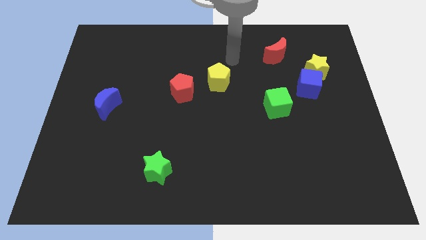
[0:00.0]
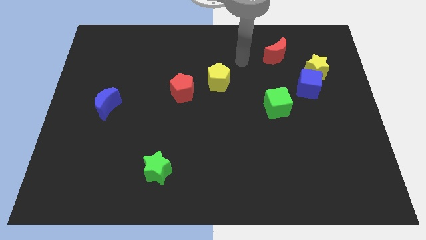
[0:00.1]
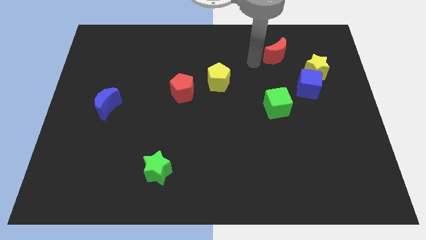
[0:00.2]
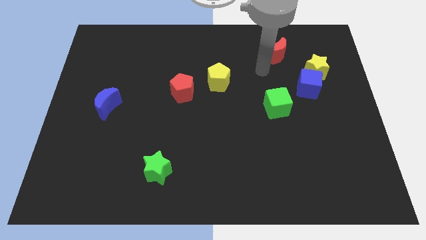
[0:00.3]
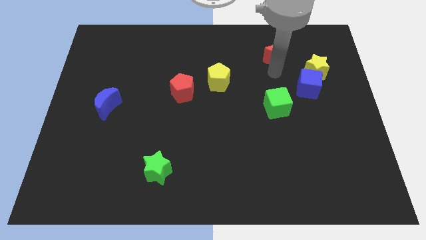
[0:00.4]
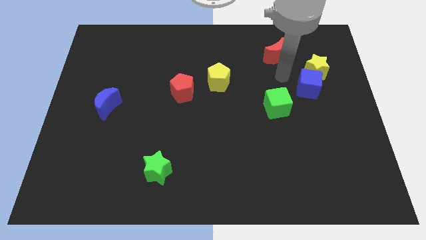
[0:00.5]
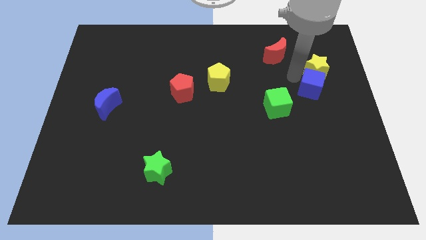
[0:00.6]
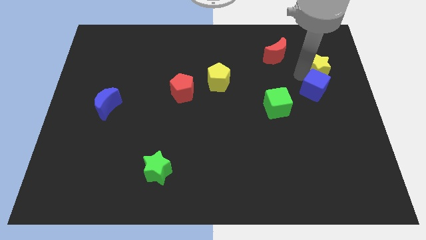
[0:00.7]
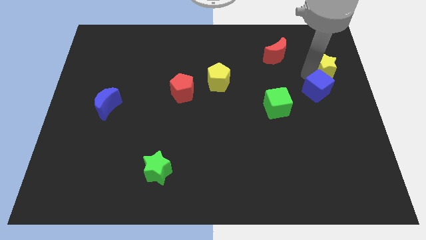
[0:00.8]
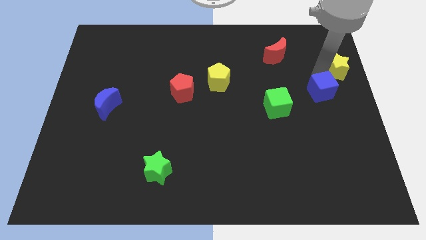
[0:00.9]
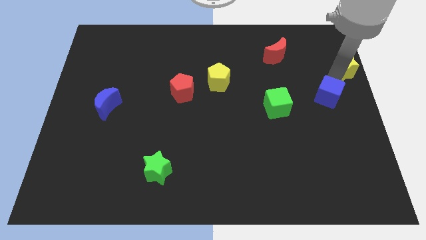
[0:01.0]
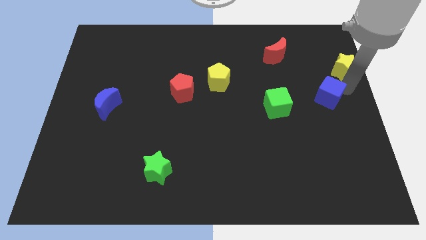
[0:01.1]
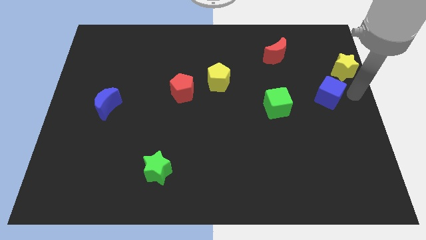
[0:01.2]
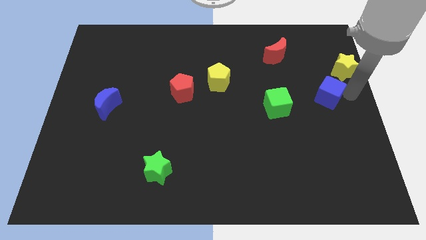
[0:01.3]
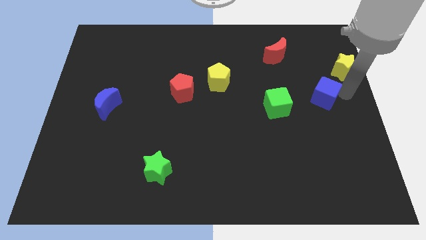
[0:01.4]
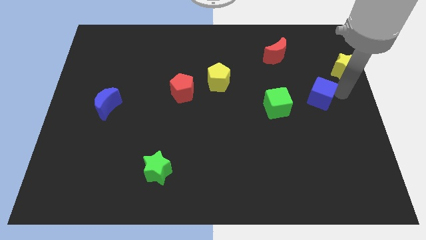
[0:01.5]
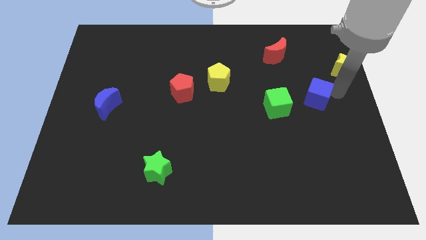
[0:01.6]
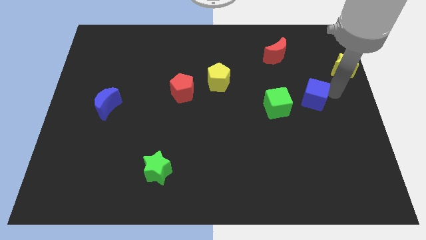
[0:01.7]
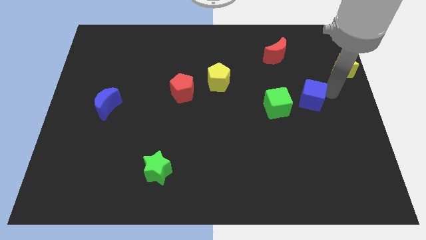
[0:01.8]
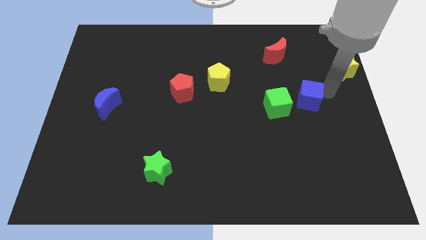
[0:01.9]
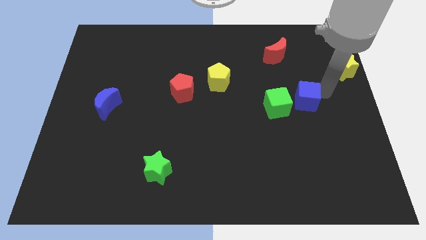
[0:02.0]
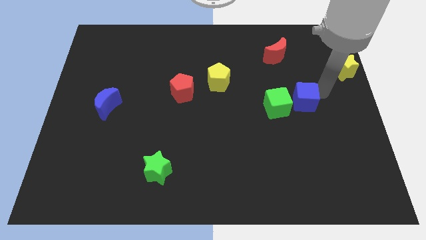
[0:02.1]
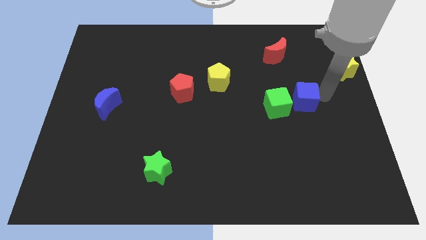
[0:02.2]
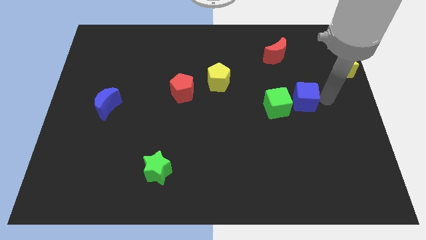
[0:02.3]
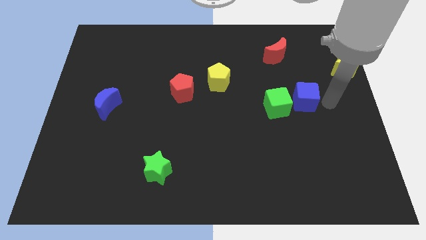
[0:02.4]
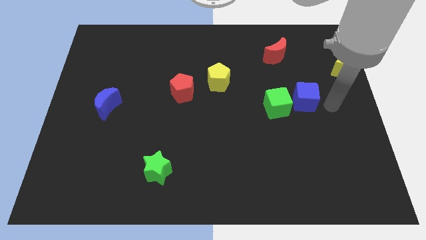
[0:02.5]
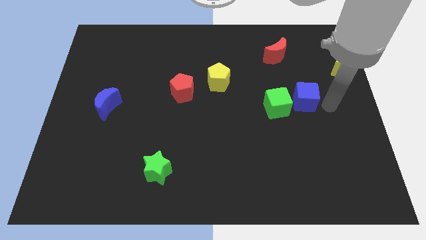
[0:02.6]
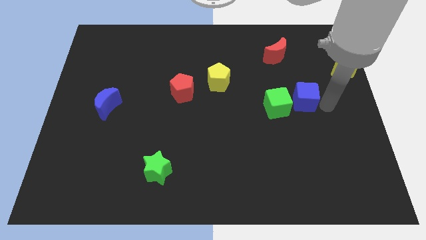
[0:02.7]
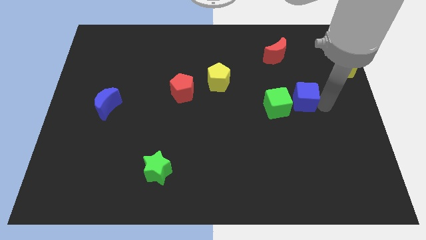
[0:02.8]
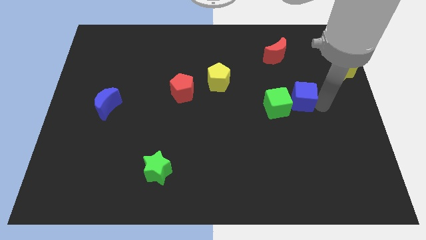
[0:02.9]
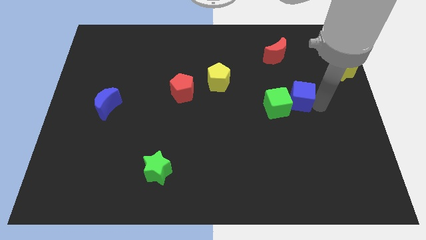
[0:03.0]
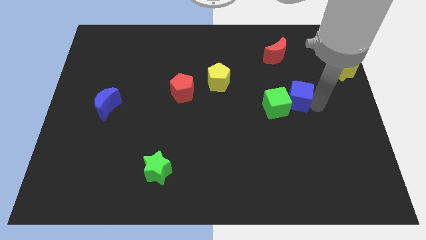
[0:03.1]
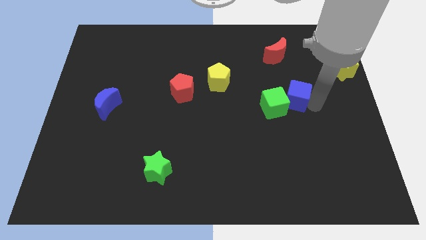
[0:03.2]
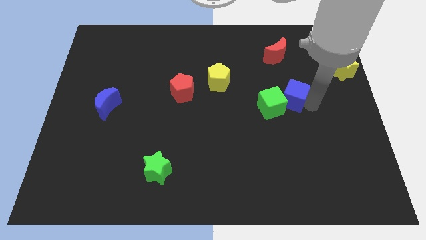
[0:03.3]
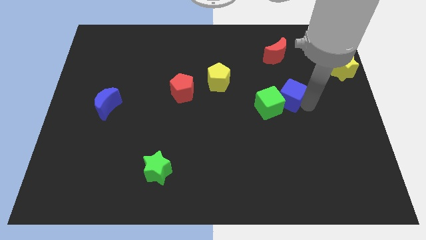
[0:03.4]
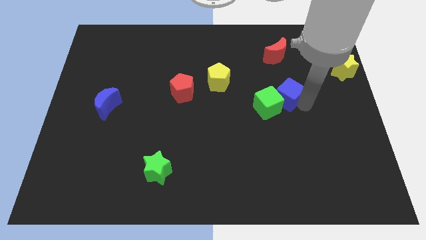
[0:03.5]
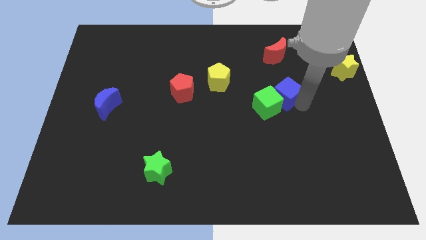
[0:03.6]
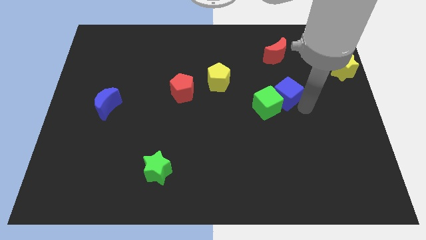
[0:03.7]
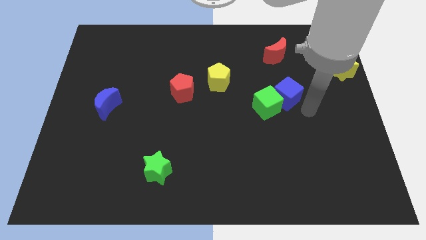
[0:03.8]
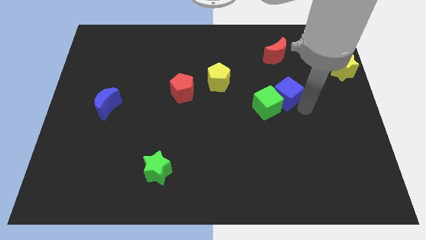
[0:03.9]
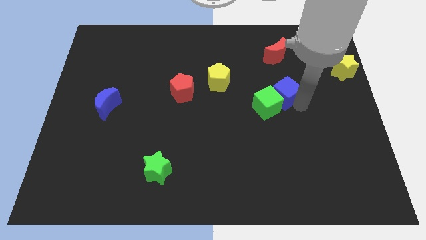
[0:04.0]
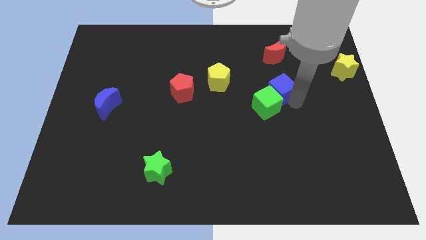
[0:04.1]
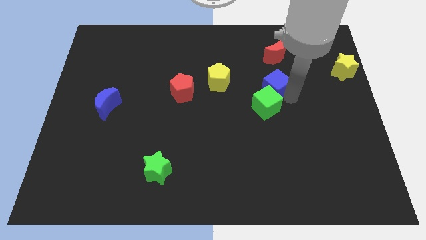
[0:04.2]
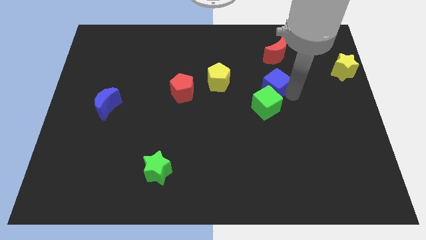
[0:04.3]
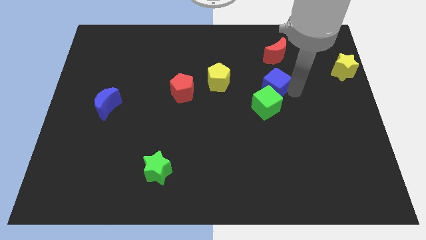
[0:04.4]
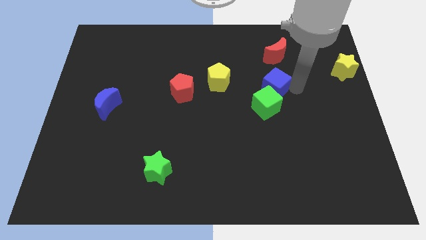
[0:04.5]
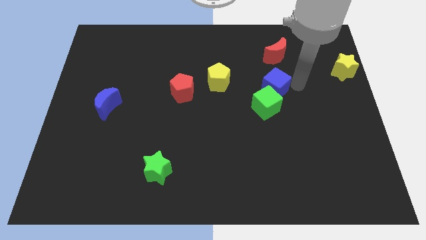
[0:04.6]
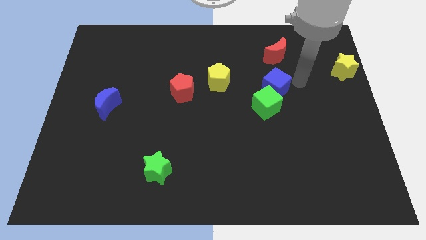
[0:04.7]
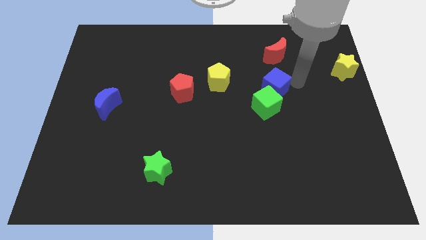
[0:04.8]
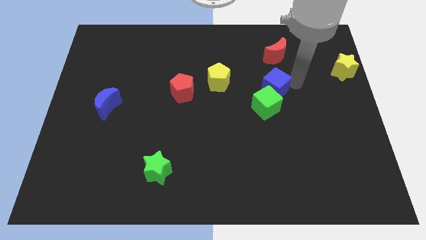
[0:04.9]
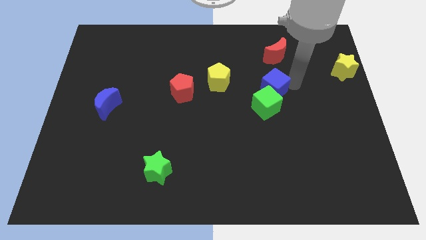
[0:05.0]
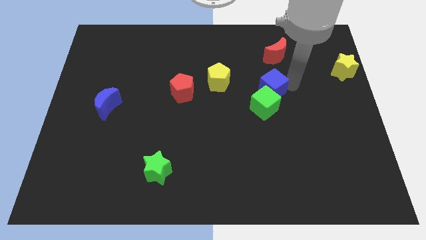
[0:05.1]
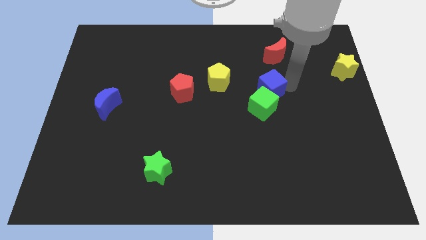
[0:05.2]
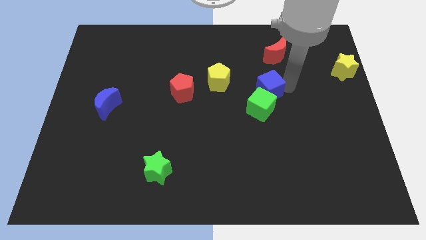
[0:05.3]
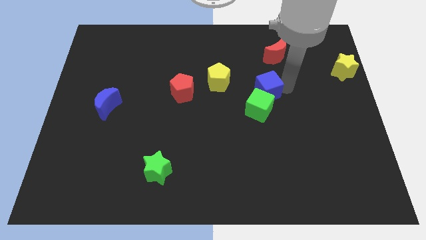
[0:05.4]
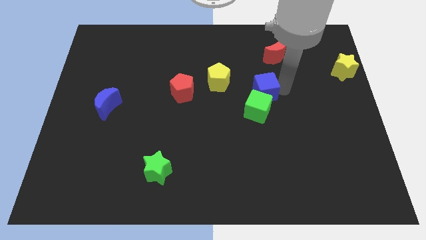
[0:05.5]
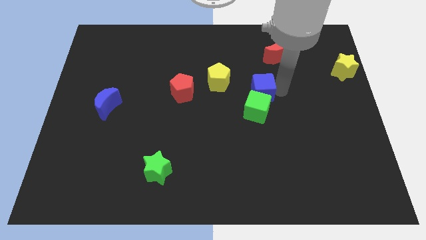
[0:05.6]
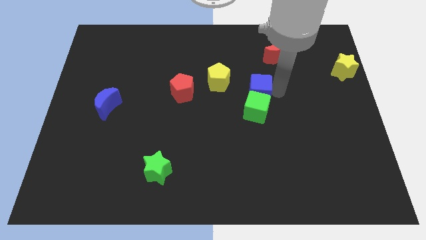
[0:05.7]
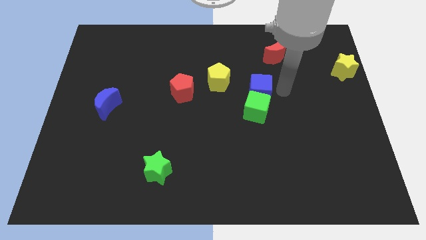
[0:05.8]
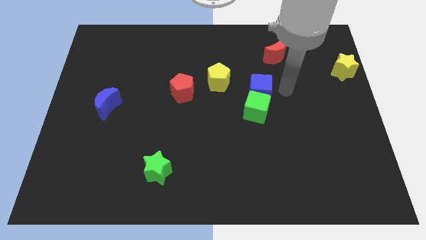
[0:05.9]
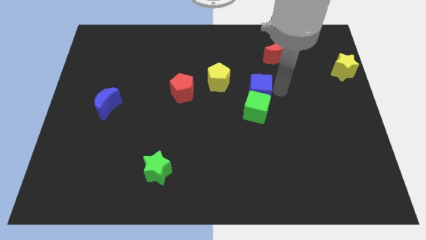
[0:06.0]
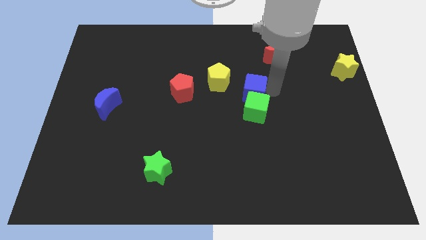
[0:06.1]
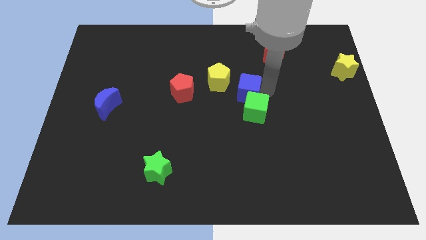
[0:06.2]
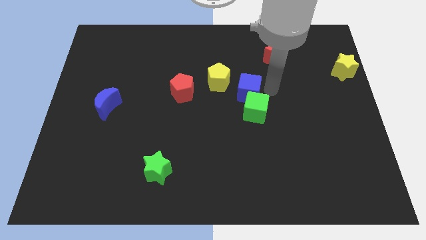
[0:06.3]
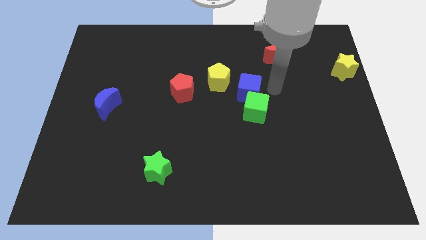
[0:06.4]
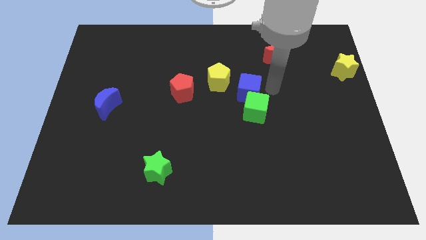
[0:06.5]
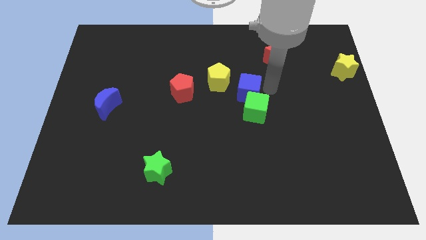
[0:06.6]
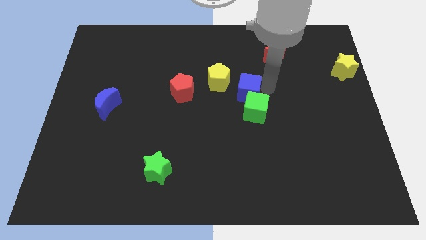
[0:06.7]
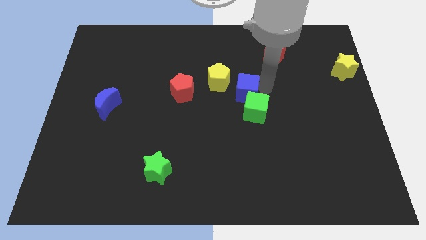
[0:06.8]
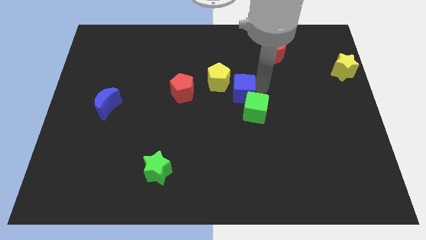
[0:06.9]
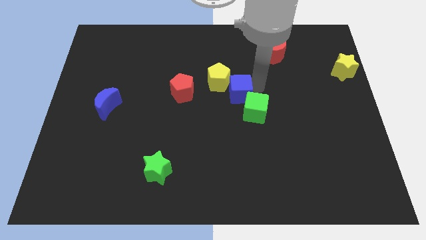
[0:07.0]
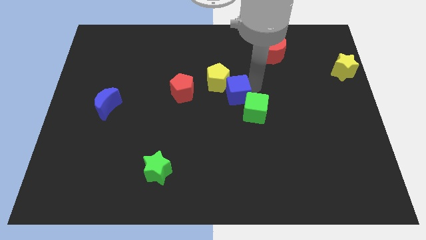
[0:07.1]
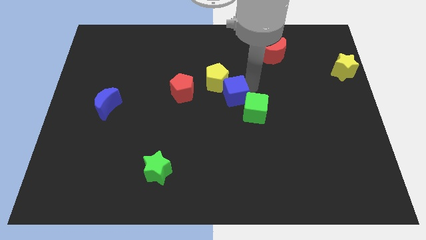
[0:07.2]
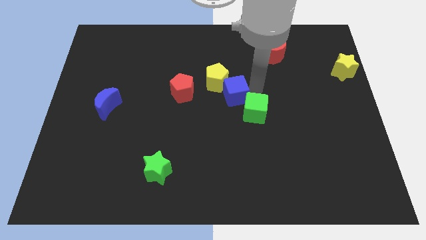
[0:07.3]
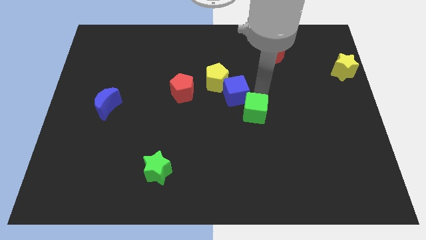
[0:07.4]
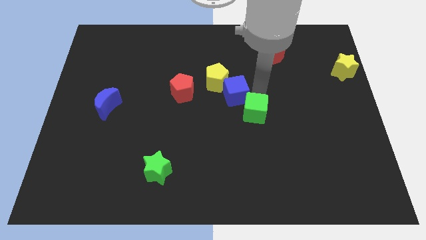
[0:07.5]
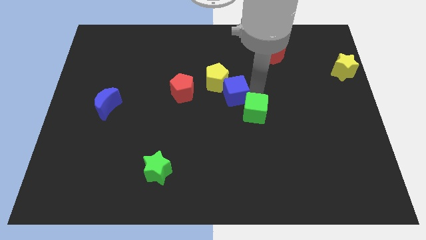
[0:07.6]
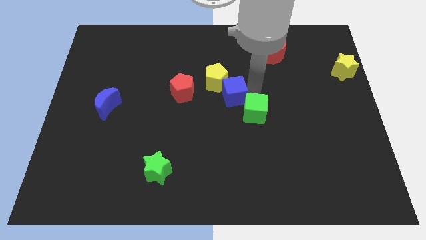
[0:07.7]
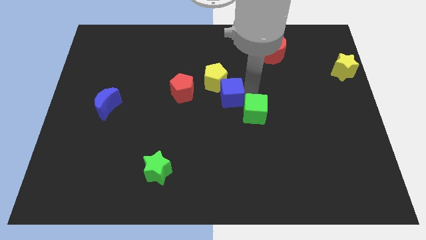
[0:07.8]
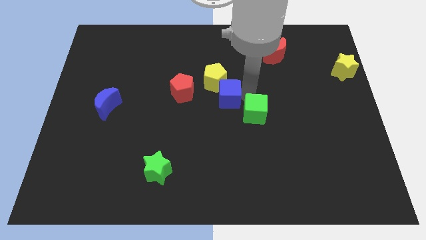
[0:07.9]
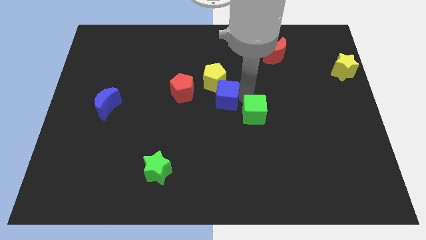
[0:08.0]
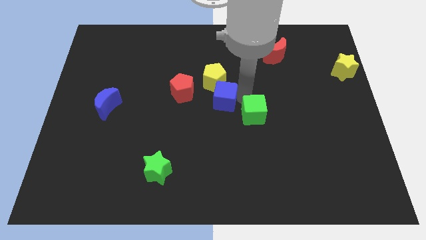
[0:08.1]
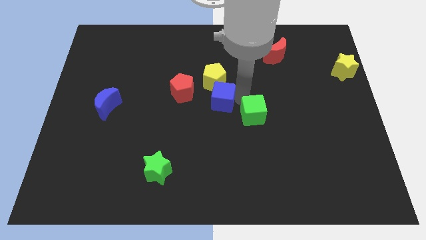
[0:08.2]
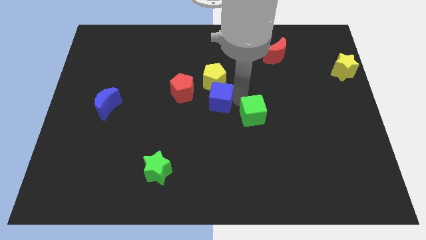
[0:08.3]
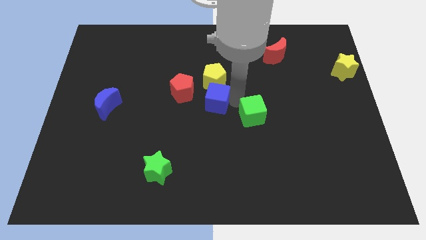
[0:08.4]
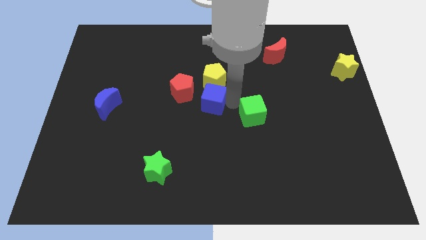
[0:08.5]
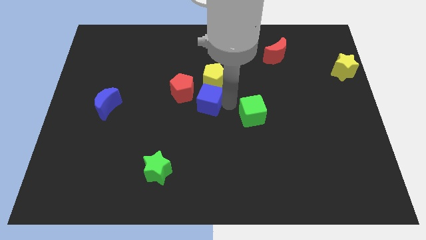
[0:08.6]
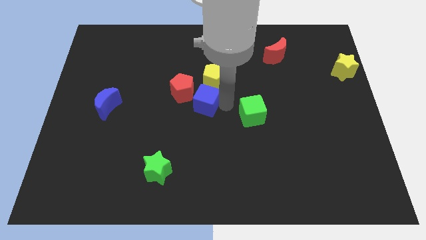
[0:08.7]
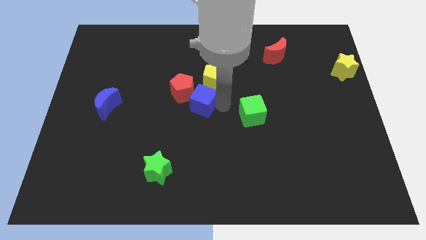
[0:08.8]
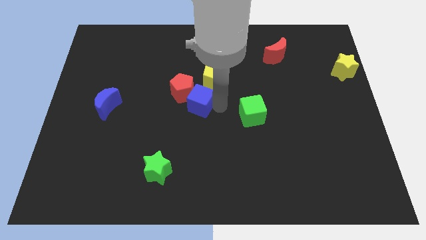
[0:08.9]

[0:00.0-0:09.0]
move the blue cube towards the red pentagon
